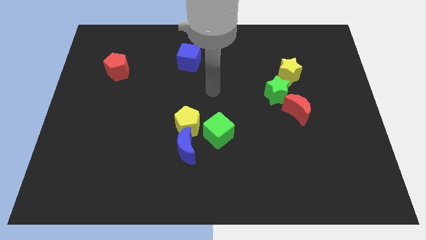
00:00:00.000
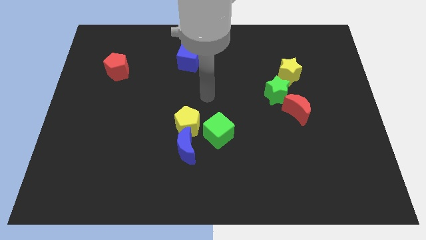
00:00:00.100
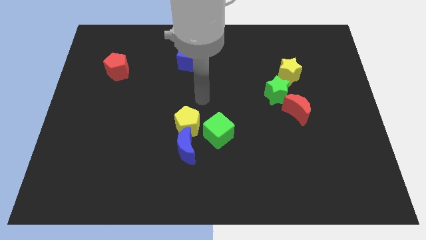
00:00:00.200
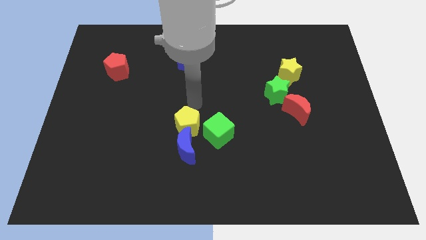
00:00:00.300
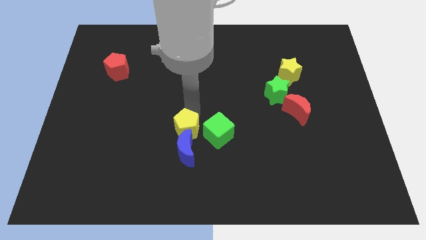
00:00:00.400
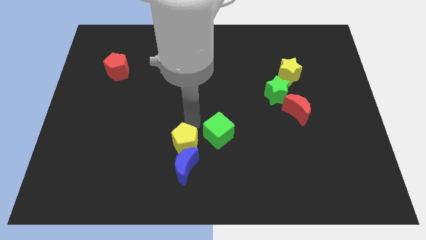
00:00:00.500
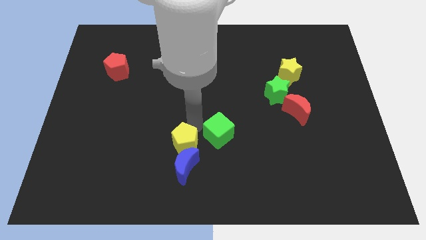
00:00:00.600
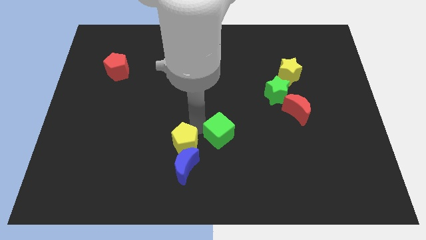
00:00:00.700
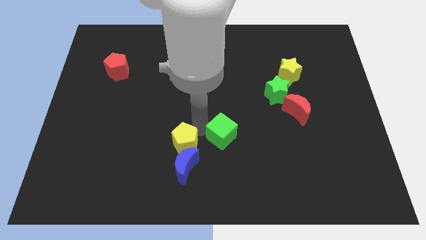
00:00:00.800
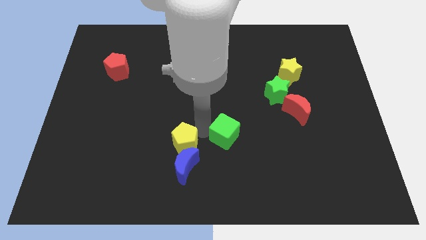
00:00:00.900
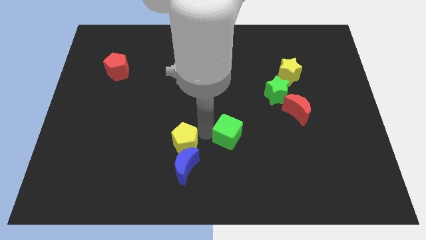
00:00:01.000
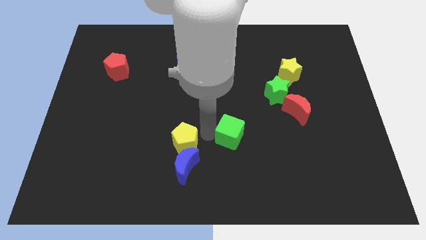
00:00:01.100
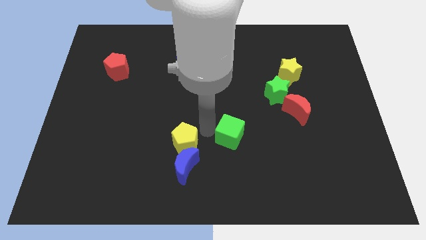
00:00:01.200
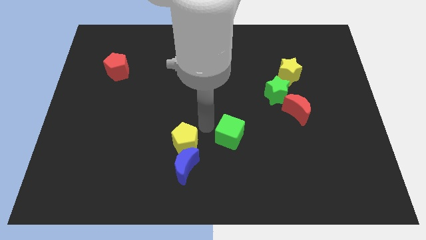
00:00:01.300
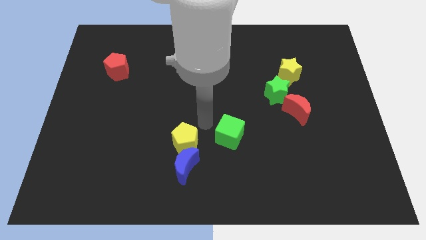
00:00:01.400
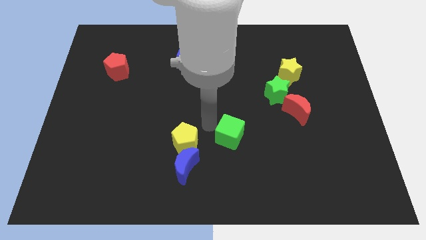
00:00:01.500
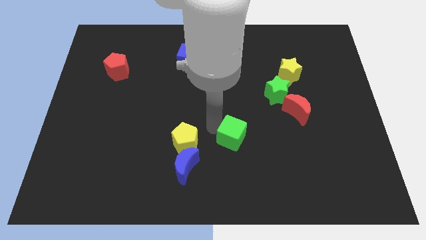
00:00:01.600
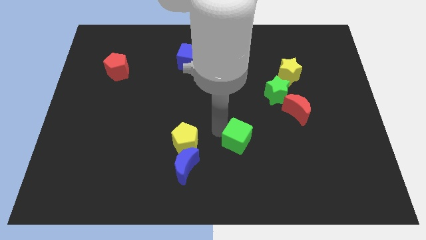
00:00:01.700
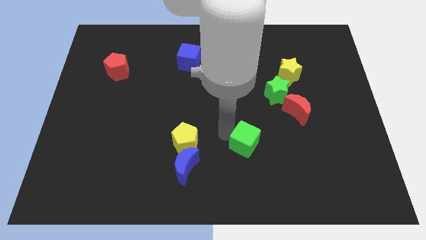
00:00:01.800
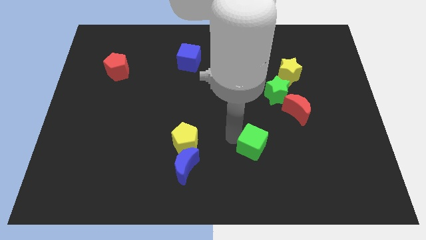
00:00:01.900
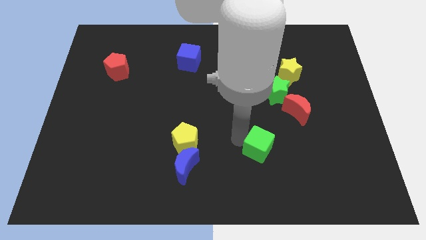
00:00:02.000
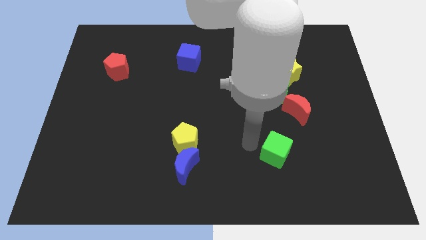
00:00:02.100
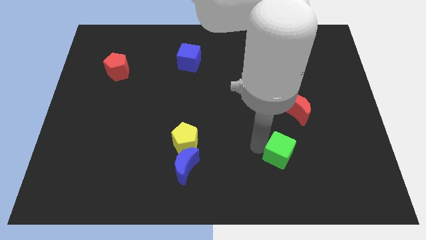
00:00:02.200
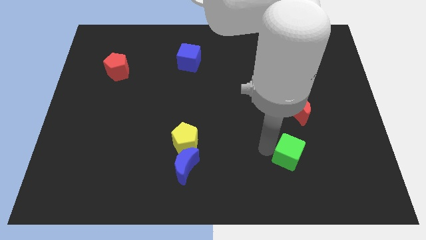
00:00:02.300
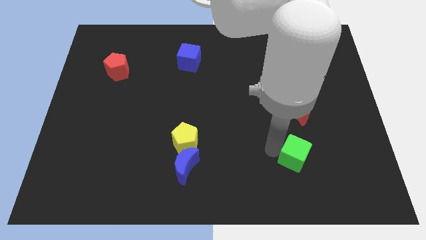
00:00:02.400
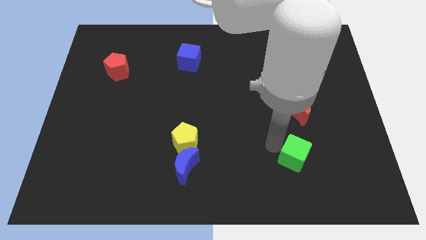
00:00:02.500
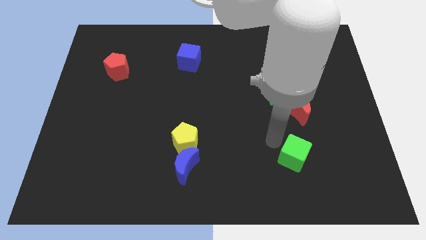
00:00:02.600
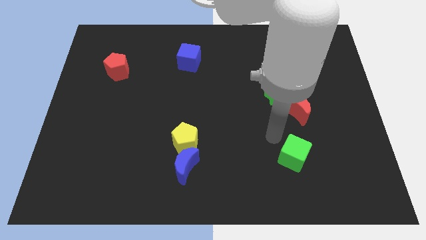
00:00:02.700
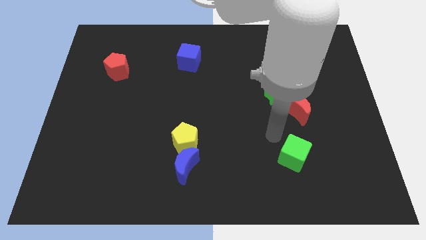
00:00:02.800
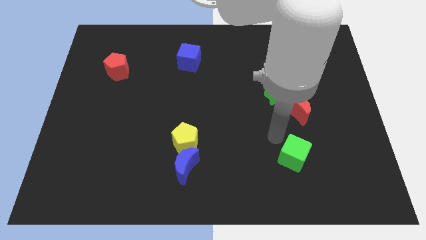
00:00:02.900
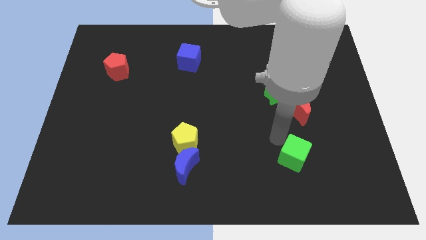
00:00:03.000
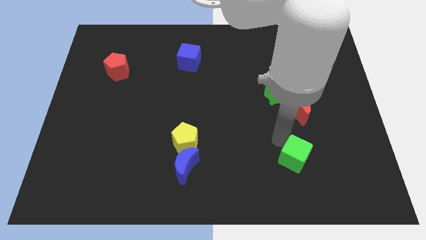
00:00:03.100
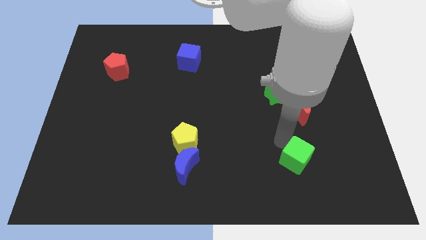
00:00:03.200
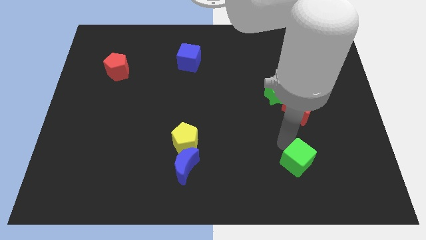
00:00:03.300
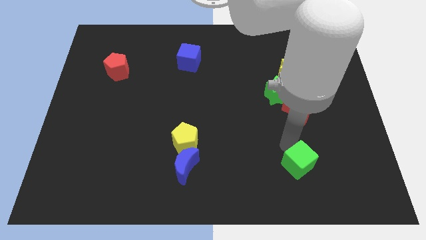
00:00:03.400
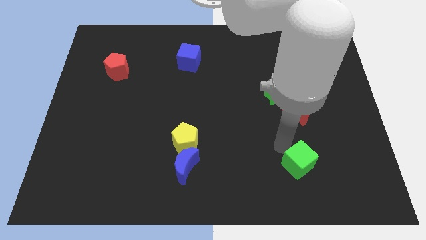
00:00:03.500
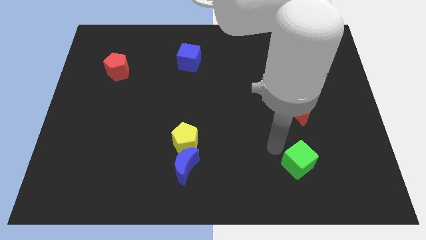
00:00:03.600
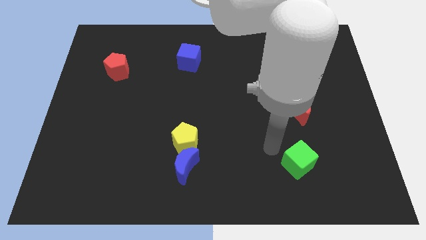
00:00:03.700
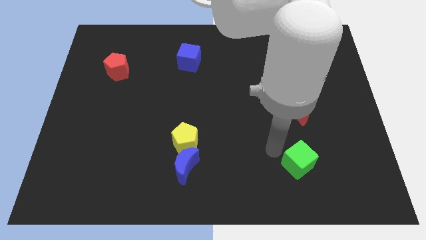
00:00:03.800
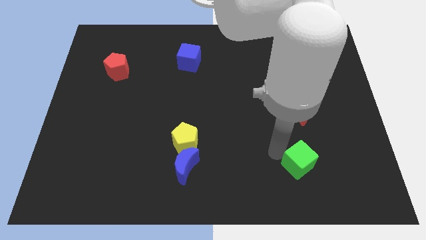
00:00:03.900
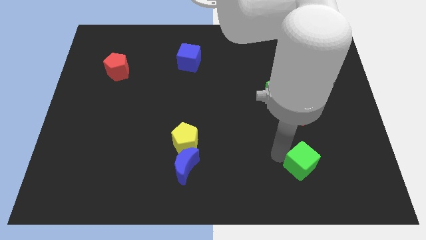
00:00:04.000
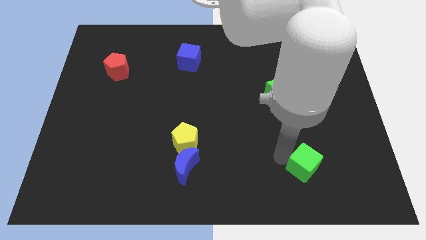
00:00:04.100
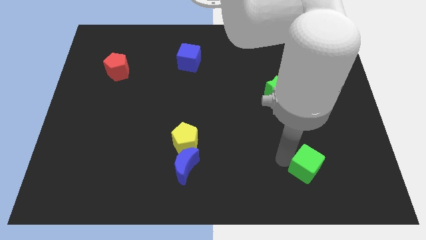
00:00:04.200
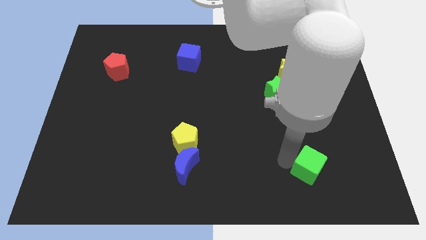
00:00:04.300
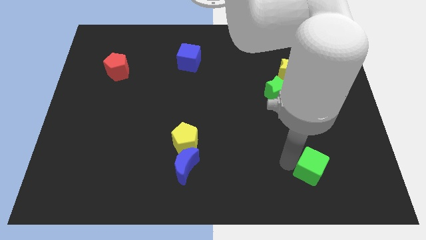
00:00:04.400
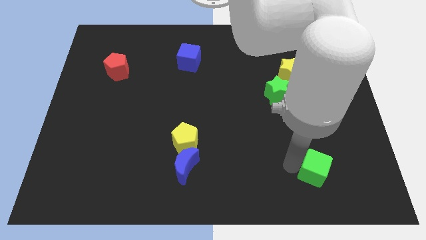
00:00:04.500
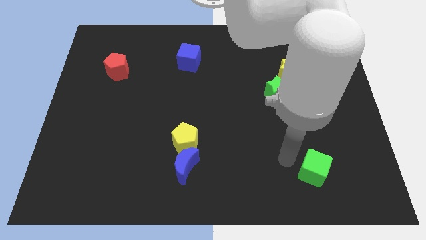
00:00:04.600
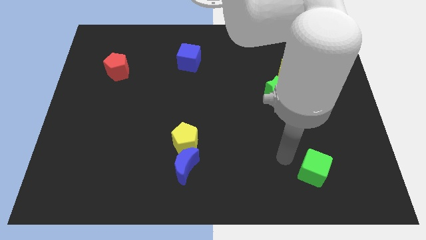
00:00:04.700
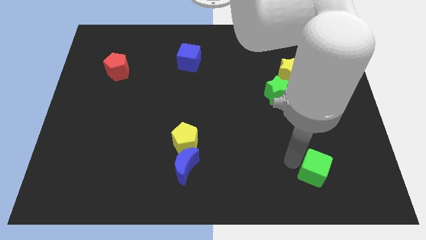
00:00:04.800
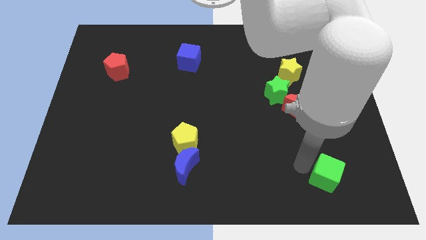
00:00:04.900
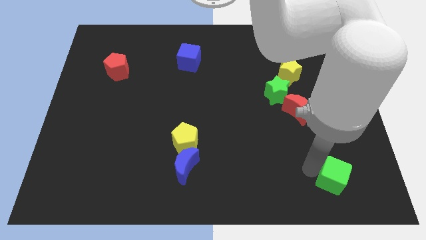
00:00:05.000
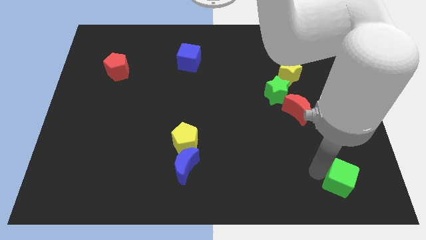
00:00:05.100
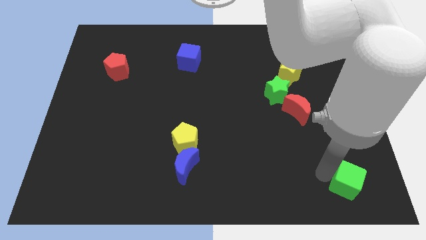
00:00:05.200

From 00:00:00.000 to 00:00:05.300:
put the green cube to the bottom right
